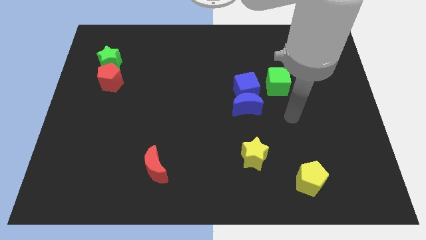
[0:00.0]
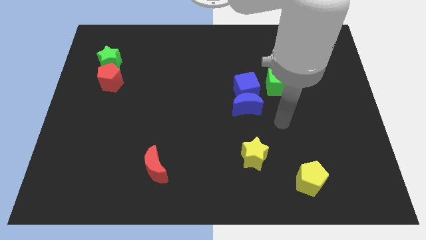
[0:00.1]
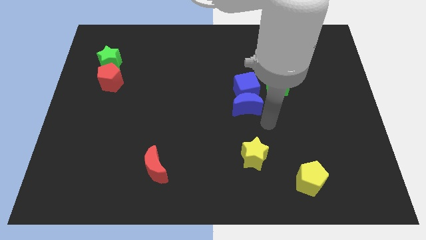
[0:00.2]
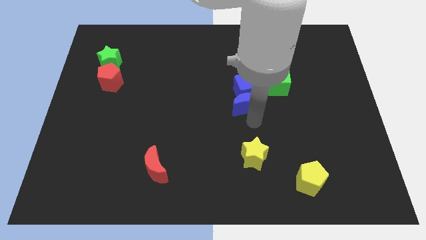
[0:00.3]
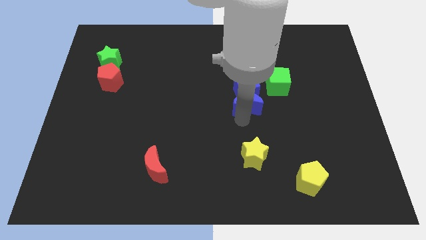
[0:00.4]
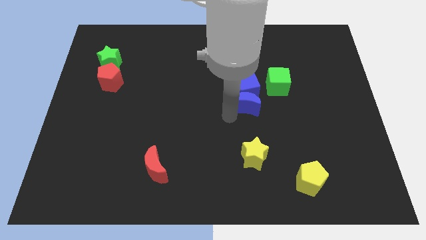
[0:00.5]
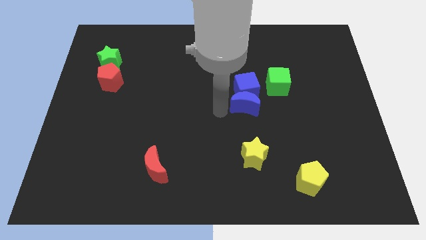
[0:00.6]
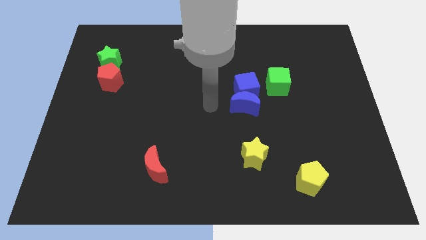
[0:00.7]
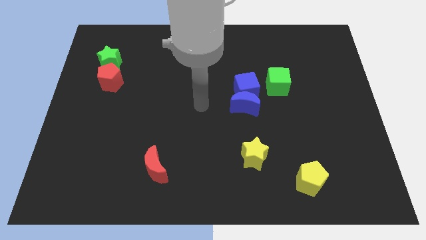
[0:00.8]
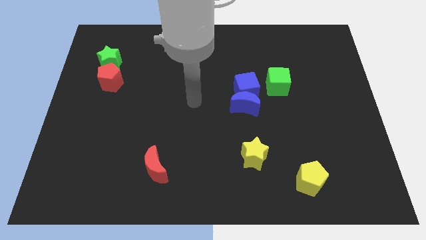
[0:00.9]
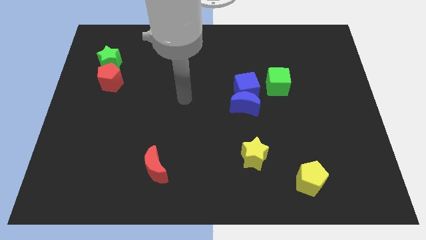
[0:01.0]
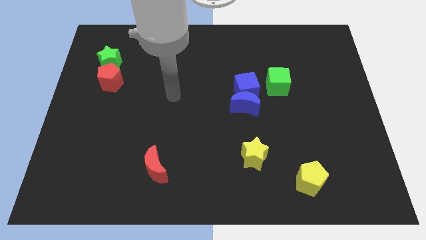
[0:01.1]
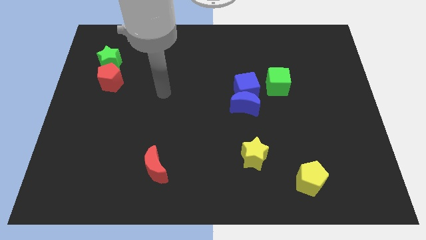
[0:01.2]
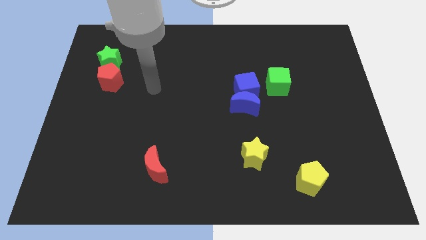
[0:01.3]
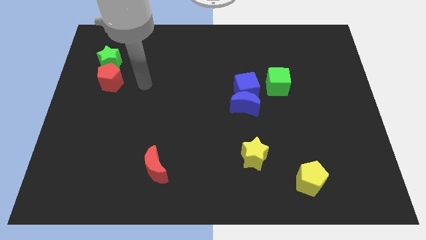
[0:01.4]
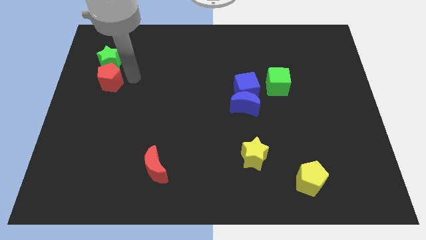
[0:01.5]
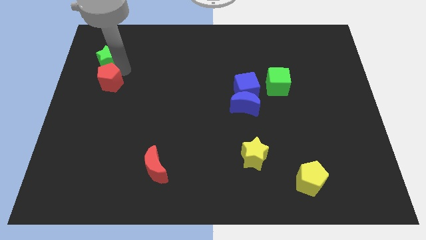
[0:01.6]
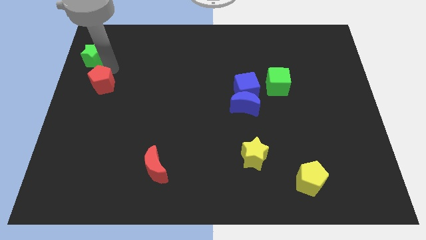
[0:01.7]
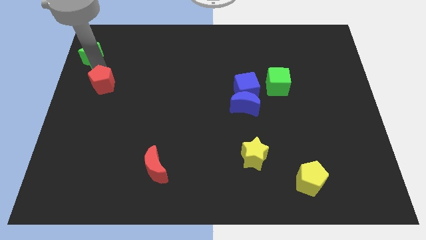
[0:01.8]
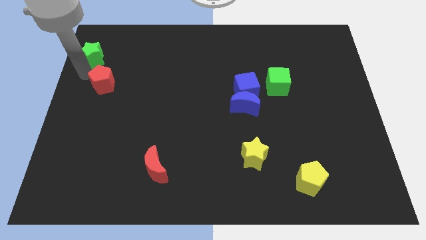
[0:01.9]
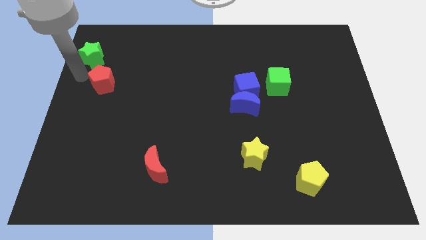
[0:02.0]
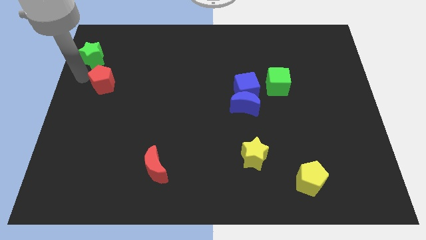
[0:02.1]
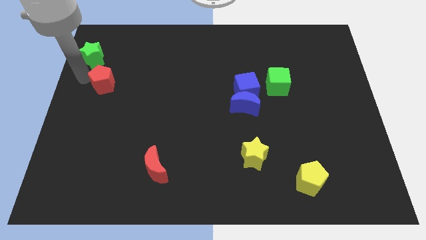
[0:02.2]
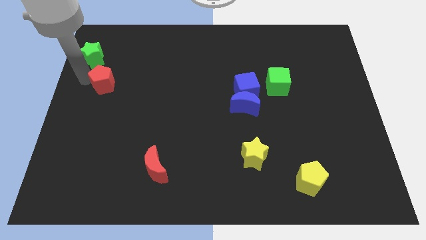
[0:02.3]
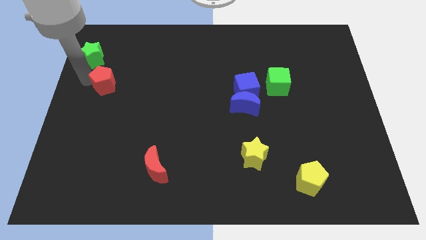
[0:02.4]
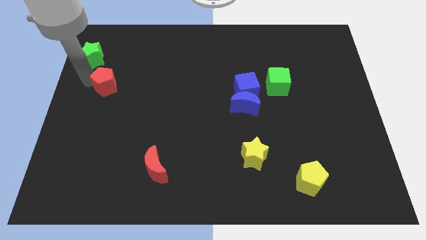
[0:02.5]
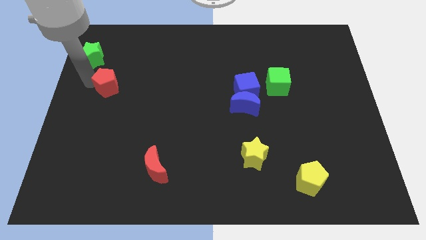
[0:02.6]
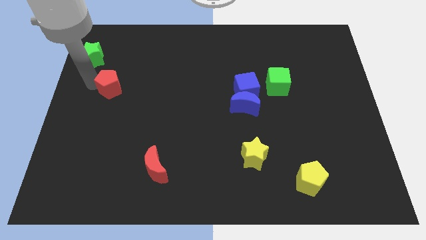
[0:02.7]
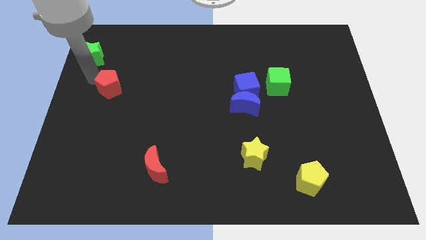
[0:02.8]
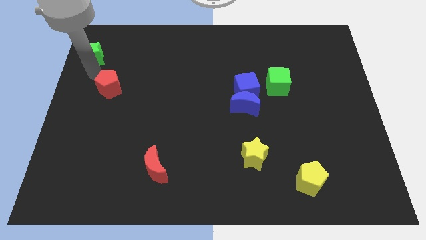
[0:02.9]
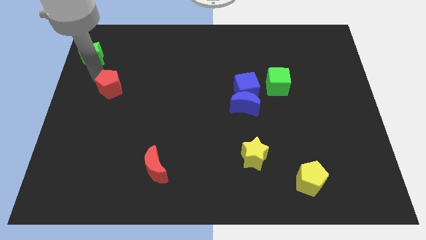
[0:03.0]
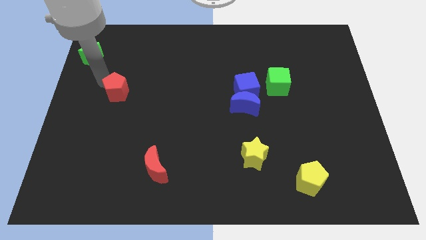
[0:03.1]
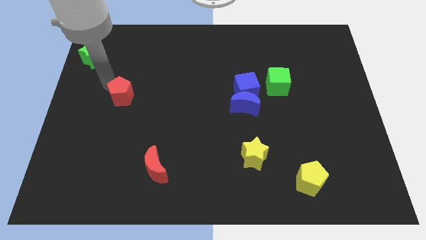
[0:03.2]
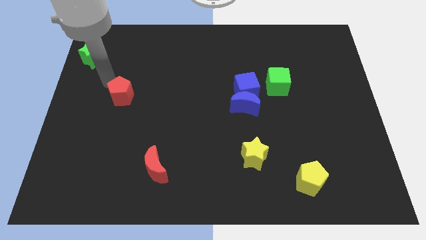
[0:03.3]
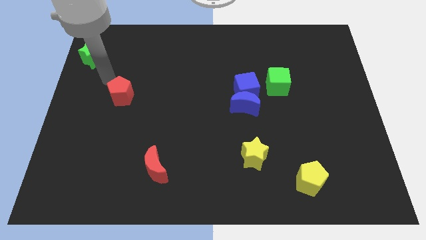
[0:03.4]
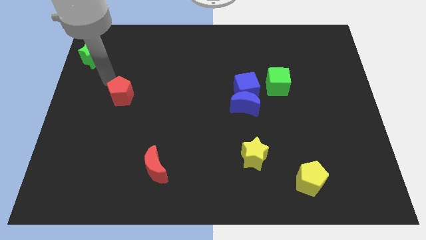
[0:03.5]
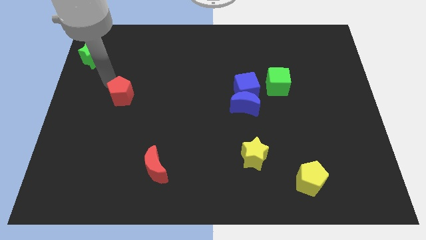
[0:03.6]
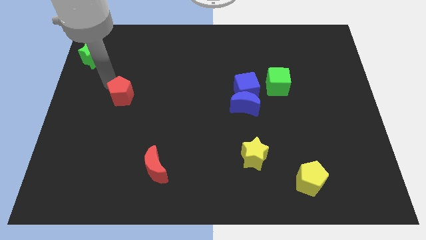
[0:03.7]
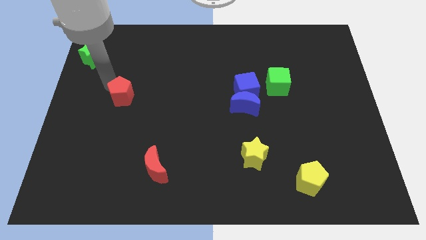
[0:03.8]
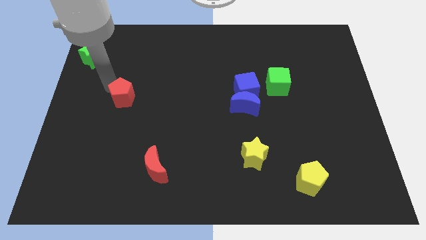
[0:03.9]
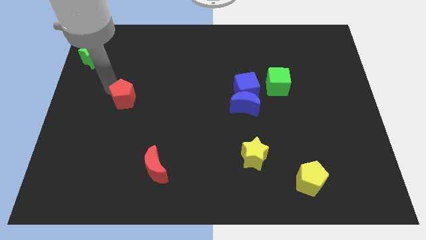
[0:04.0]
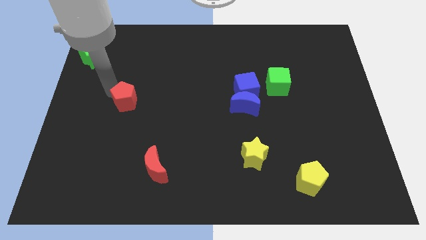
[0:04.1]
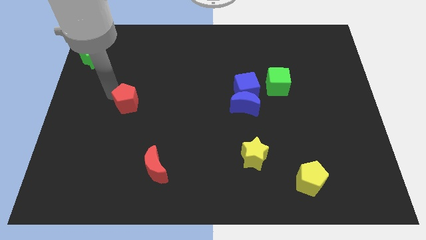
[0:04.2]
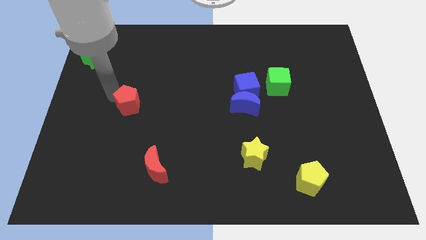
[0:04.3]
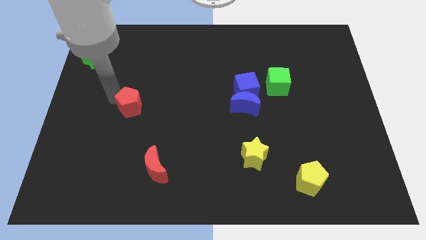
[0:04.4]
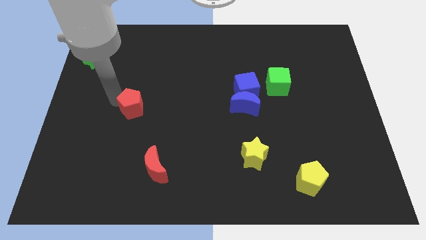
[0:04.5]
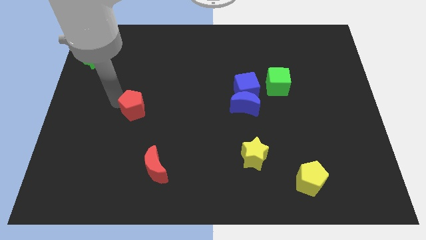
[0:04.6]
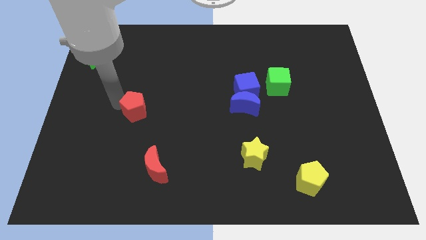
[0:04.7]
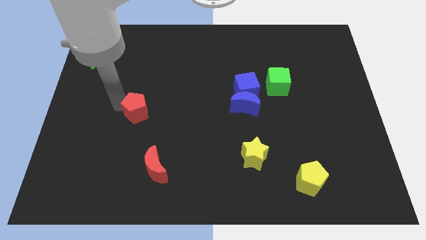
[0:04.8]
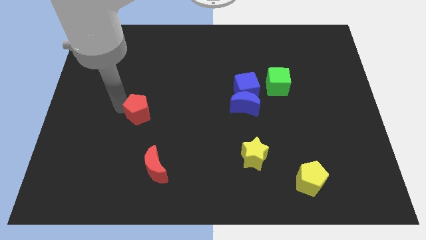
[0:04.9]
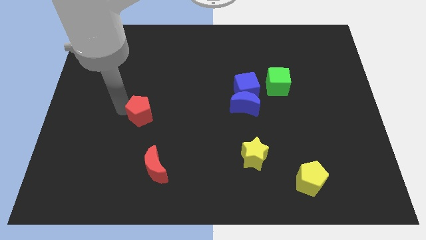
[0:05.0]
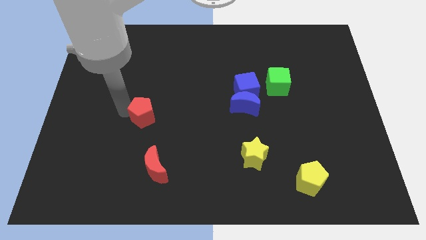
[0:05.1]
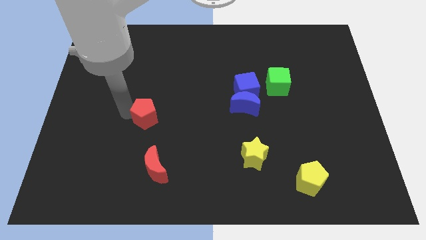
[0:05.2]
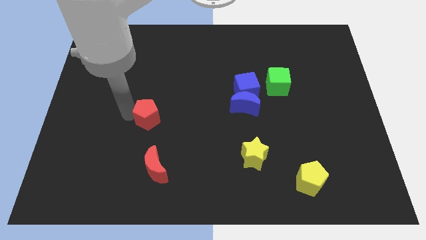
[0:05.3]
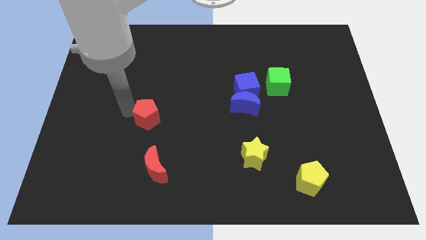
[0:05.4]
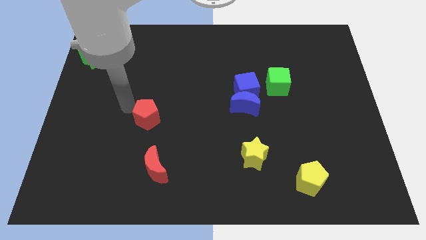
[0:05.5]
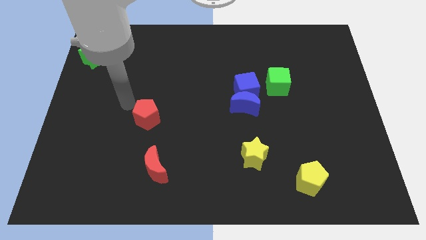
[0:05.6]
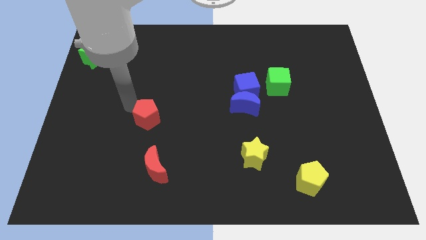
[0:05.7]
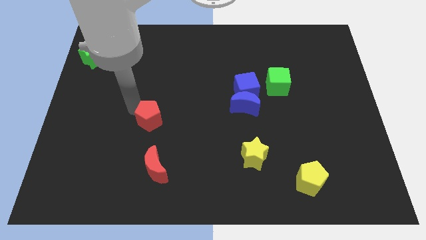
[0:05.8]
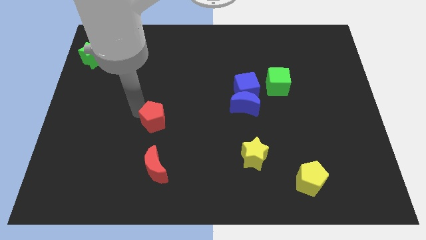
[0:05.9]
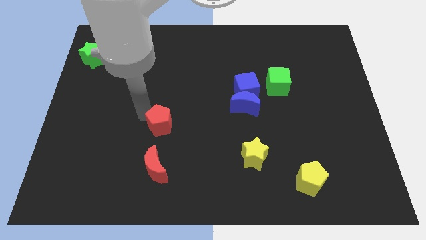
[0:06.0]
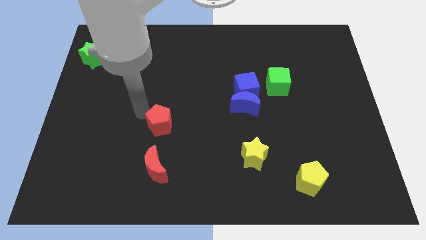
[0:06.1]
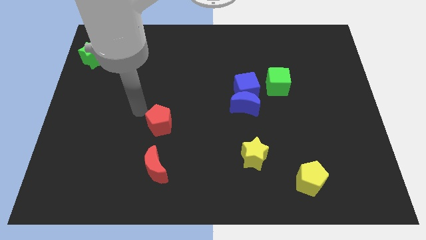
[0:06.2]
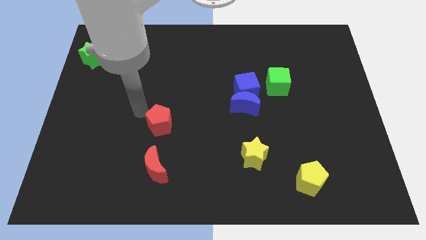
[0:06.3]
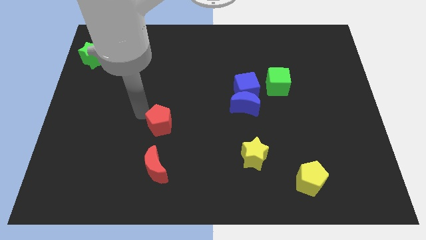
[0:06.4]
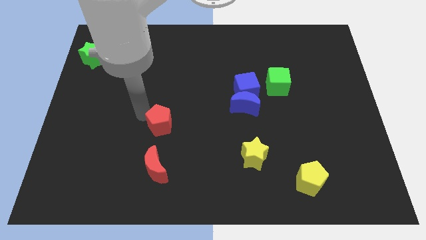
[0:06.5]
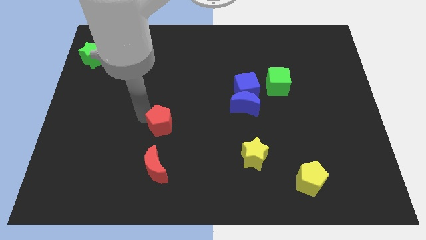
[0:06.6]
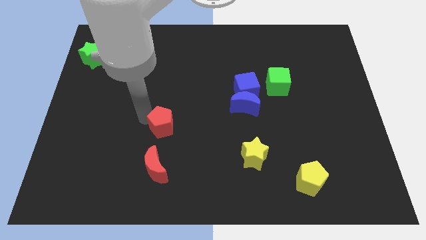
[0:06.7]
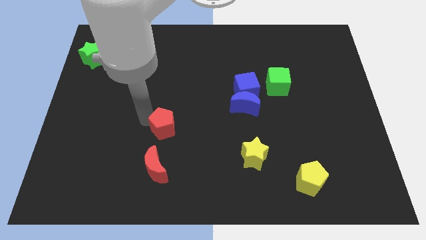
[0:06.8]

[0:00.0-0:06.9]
slide the red pentagon diagonally downwards and to the right

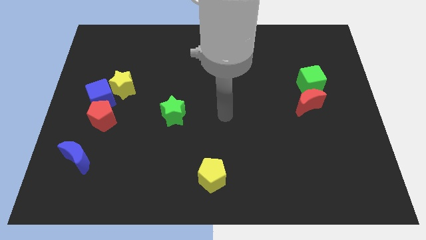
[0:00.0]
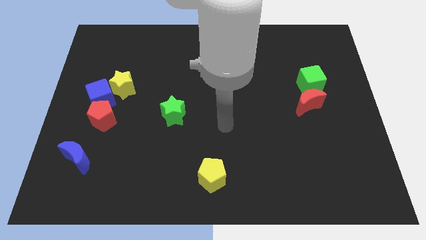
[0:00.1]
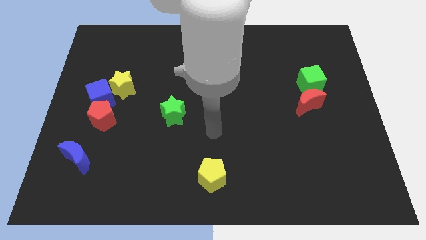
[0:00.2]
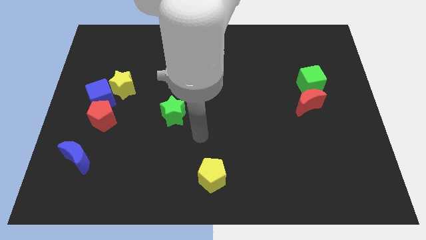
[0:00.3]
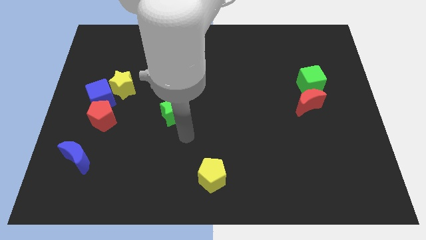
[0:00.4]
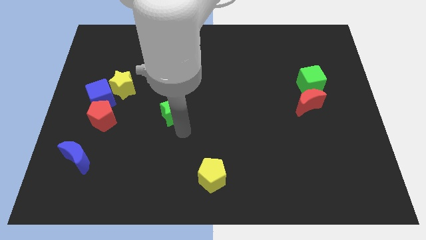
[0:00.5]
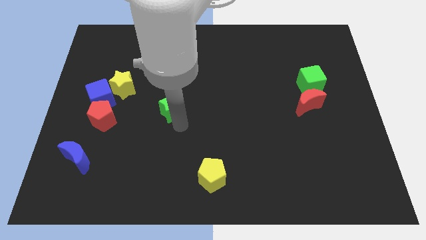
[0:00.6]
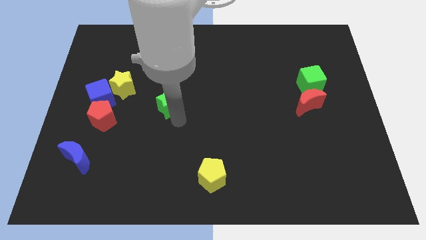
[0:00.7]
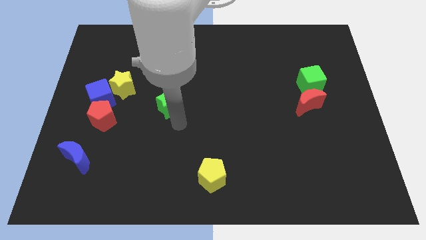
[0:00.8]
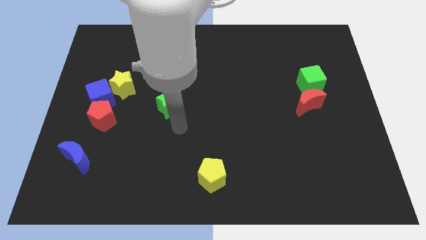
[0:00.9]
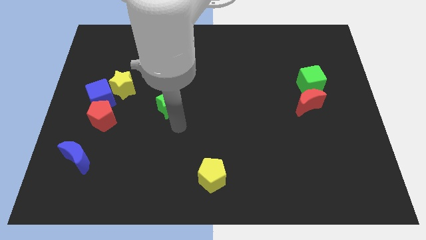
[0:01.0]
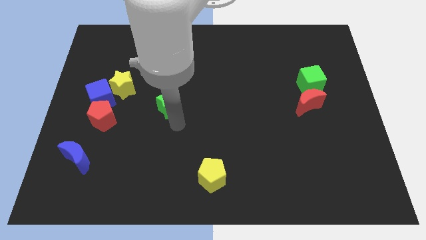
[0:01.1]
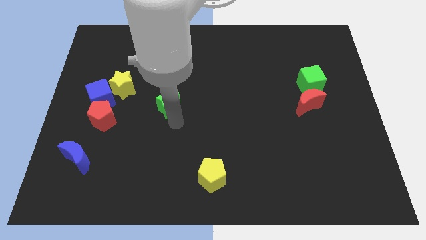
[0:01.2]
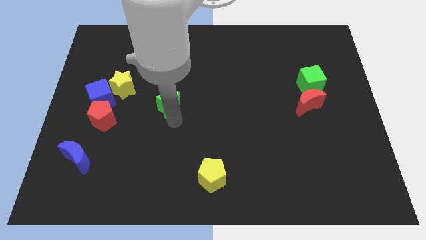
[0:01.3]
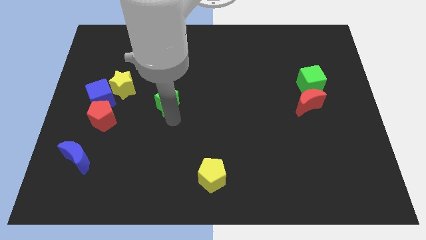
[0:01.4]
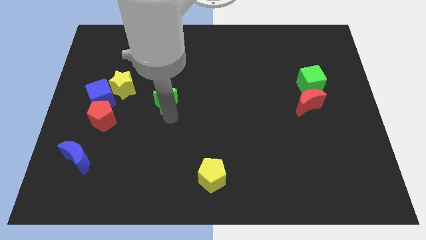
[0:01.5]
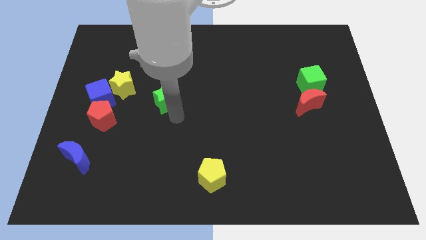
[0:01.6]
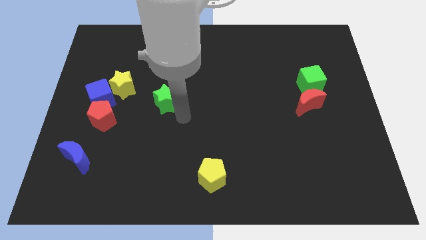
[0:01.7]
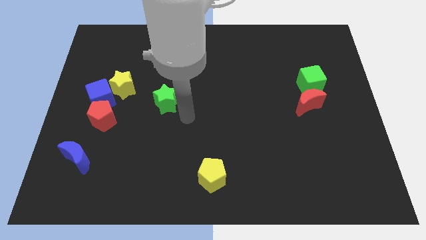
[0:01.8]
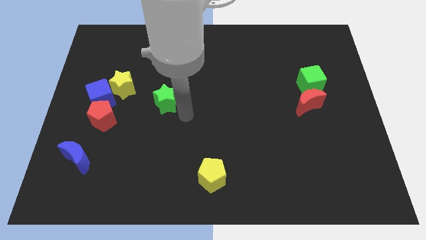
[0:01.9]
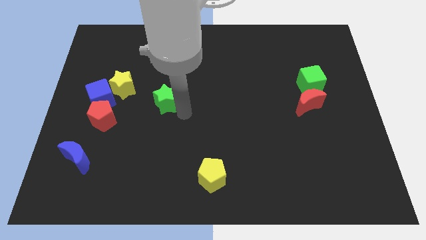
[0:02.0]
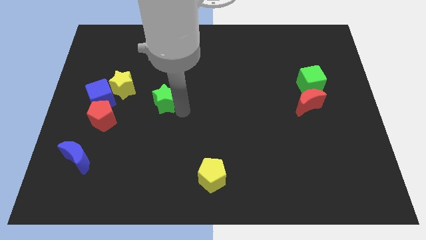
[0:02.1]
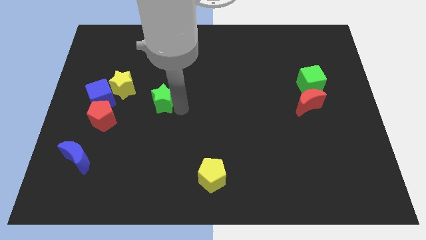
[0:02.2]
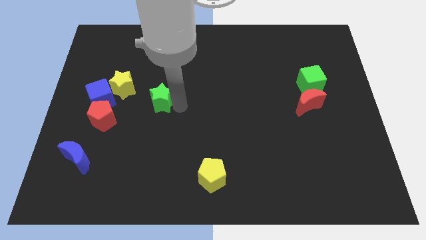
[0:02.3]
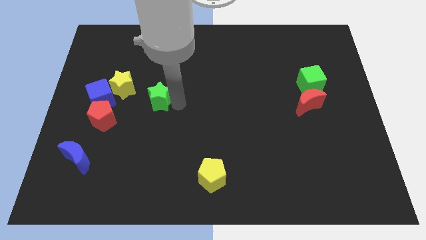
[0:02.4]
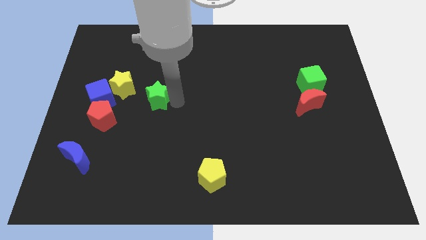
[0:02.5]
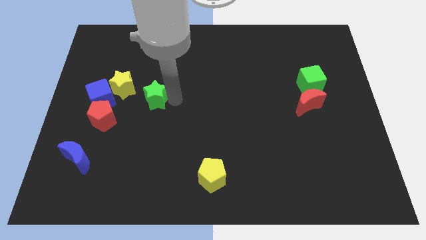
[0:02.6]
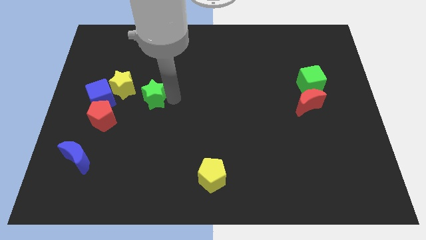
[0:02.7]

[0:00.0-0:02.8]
move the green star up and left diagonally a little bit
